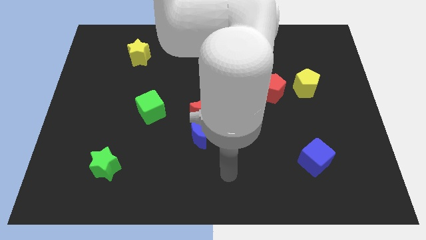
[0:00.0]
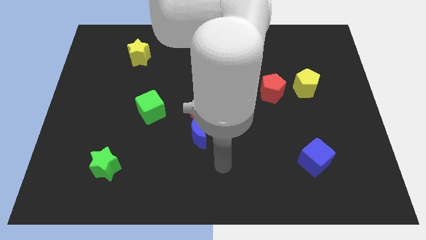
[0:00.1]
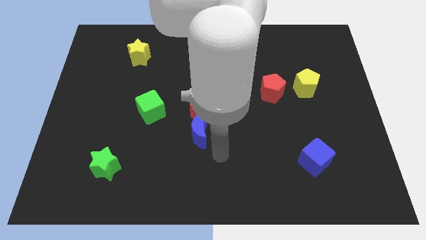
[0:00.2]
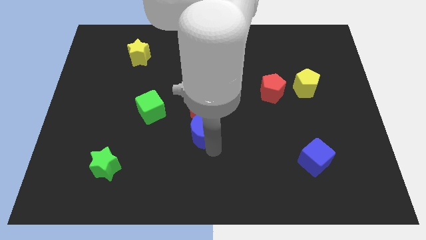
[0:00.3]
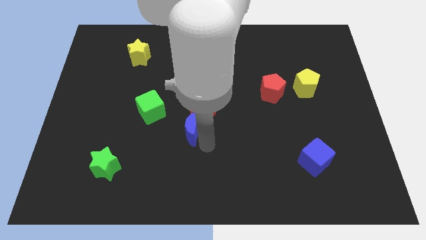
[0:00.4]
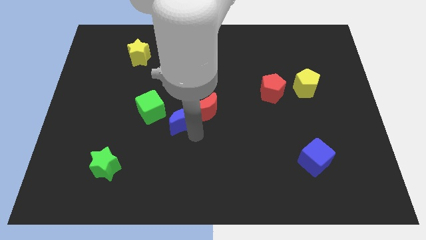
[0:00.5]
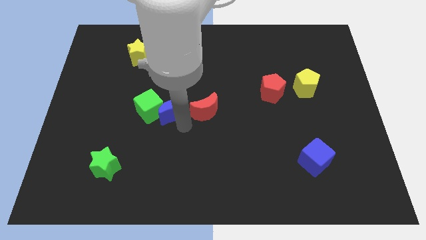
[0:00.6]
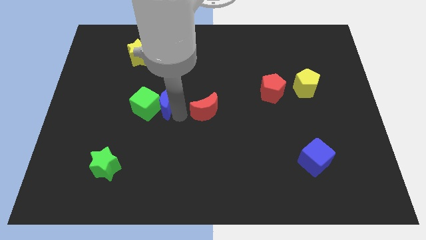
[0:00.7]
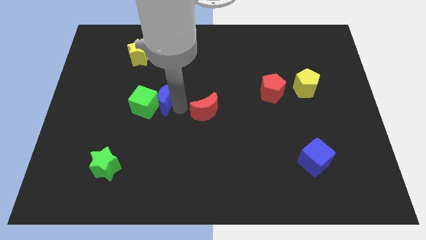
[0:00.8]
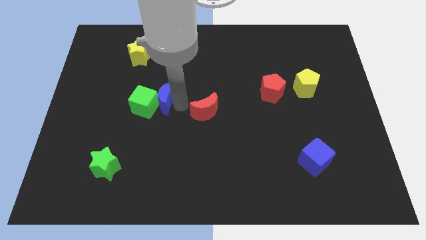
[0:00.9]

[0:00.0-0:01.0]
pull the red moon apart from the blue moon

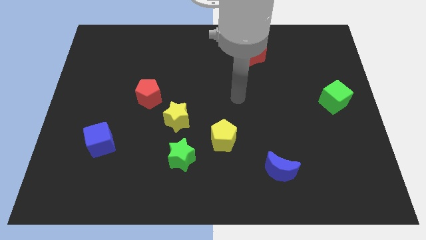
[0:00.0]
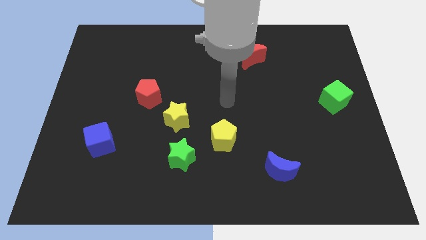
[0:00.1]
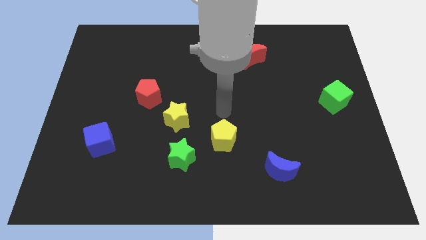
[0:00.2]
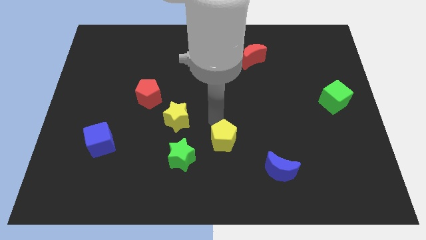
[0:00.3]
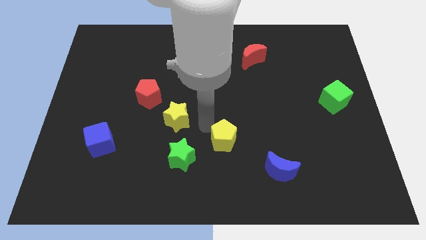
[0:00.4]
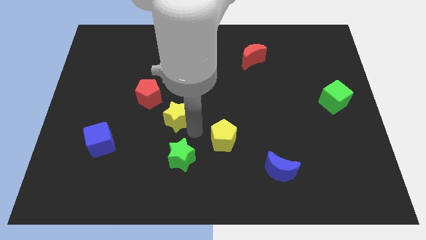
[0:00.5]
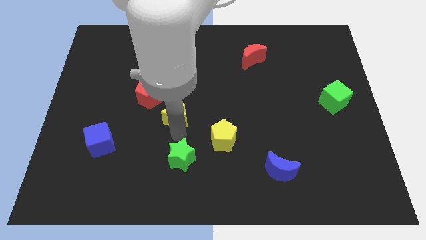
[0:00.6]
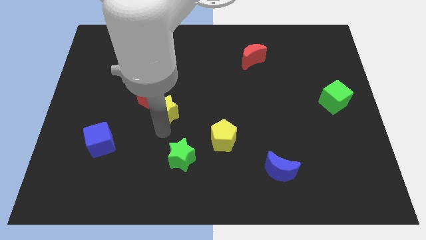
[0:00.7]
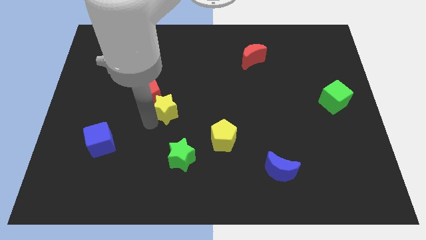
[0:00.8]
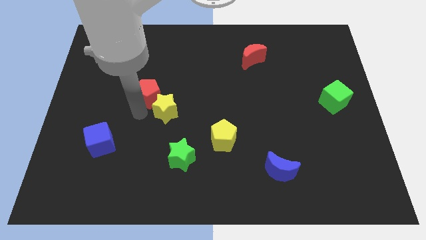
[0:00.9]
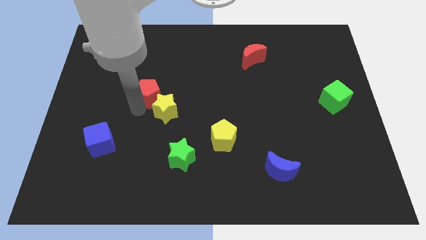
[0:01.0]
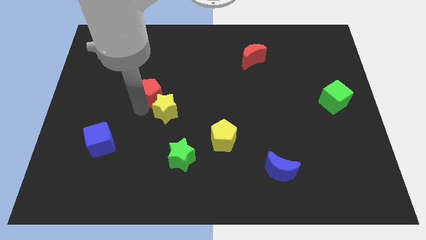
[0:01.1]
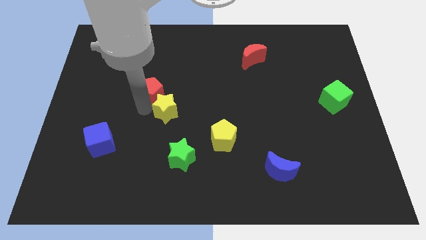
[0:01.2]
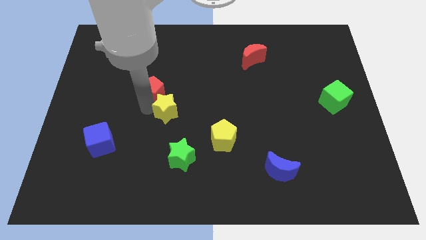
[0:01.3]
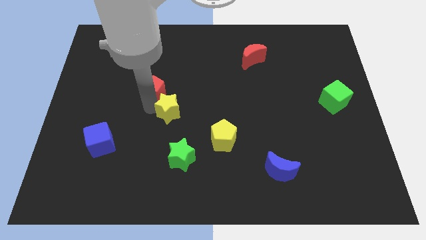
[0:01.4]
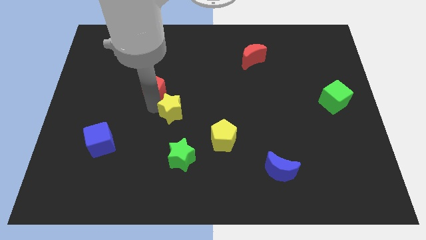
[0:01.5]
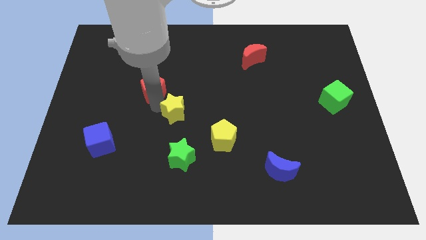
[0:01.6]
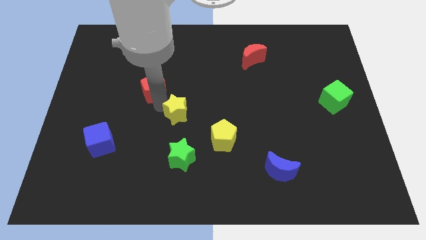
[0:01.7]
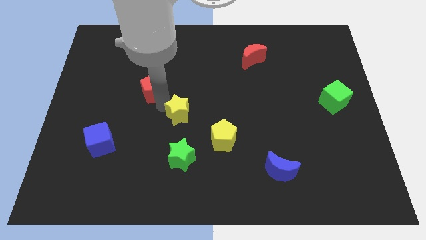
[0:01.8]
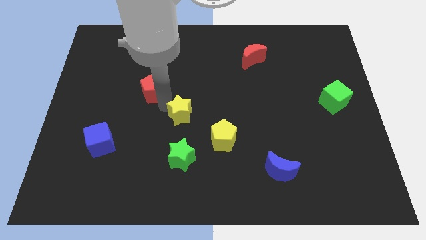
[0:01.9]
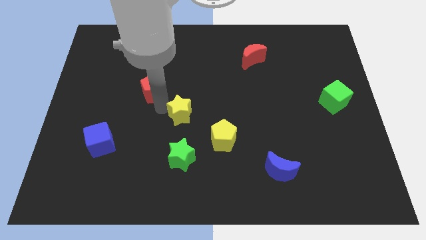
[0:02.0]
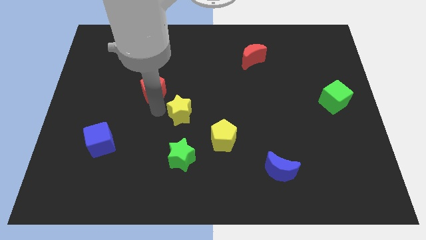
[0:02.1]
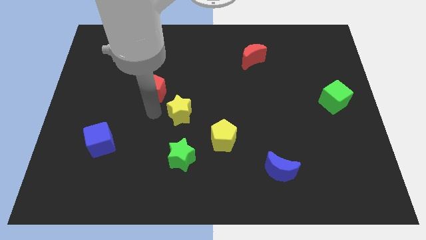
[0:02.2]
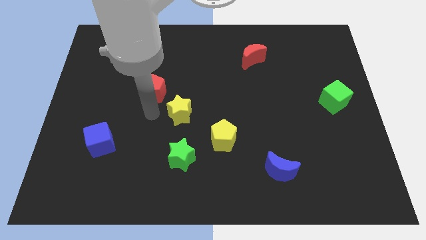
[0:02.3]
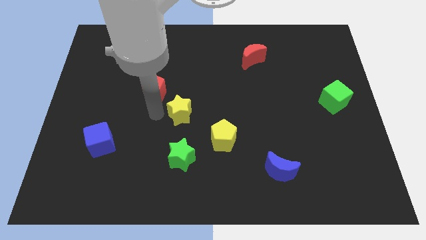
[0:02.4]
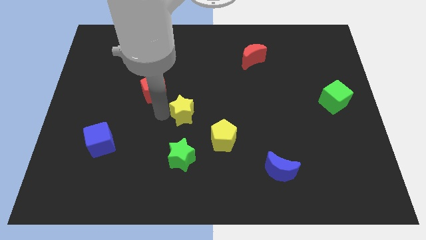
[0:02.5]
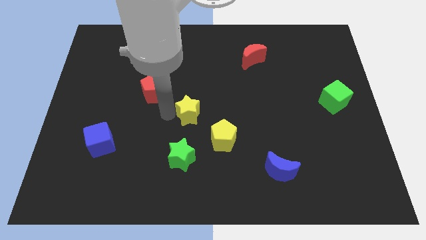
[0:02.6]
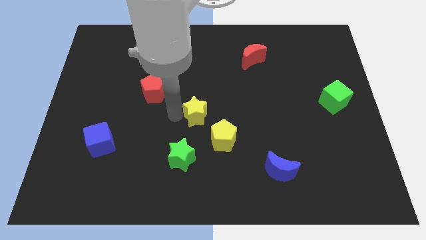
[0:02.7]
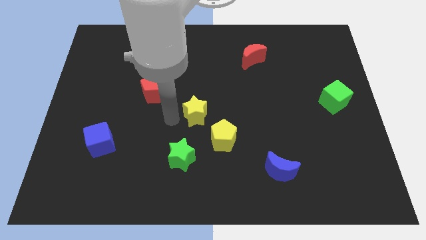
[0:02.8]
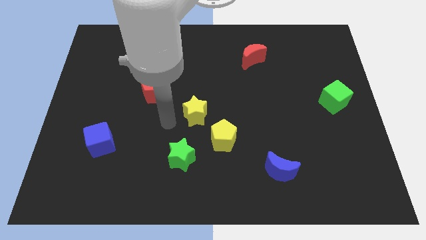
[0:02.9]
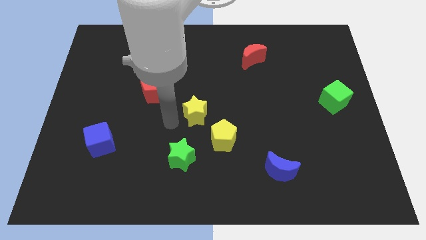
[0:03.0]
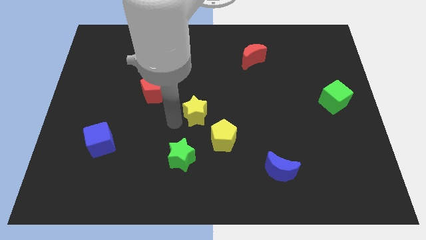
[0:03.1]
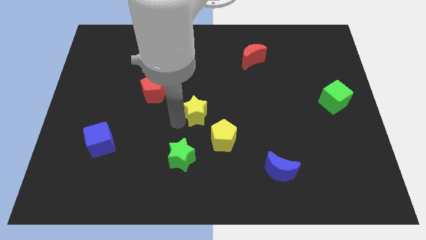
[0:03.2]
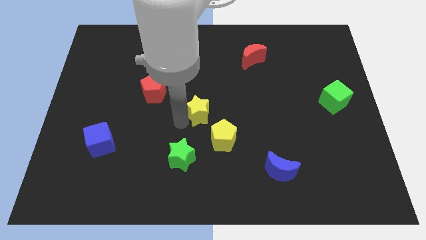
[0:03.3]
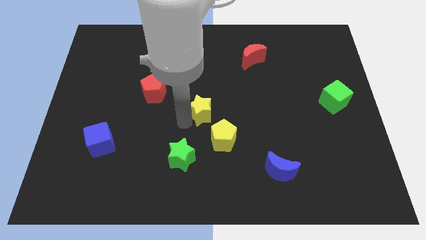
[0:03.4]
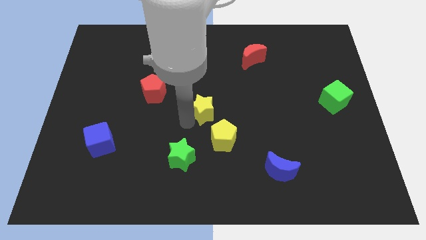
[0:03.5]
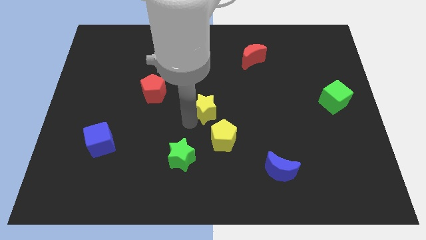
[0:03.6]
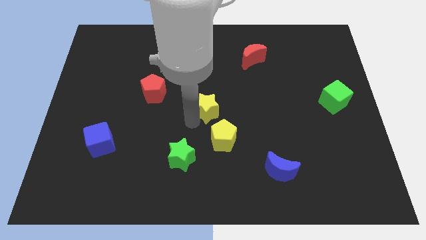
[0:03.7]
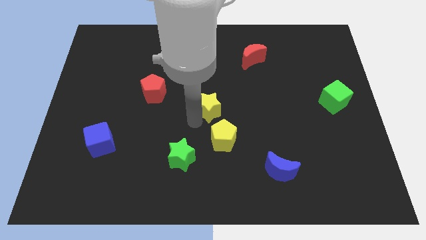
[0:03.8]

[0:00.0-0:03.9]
pull the yellow star apart from the green star and red pentagon

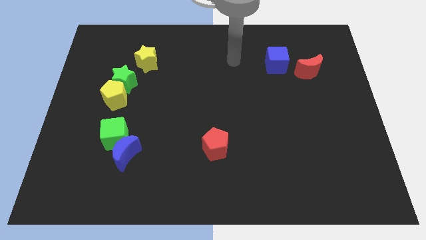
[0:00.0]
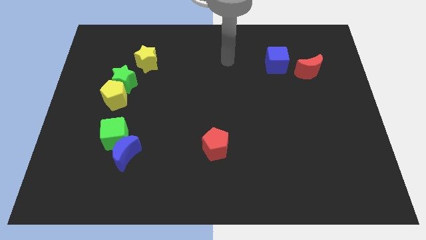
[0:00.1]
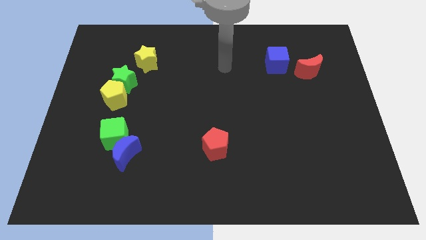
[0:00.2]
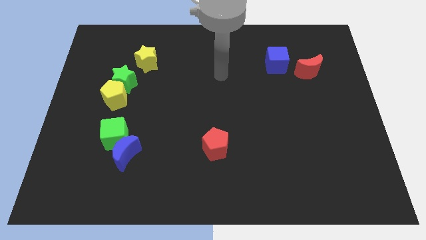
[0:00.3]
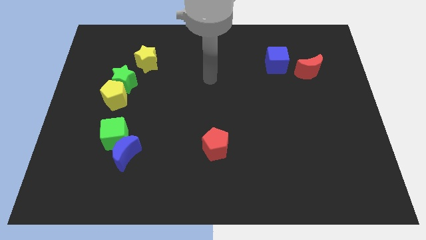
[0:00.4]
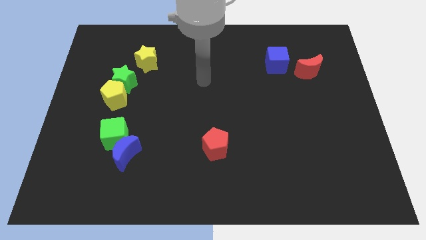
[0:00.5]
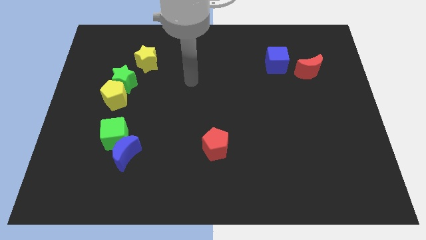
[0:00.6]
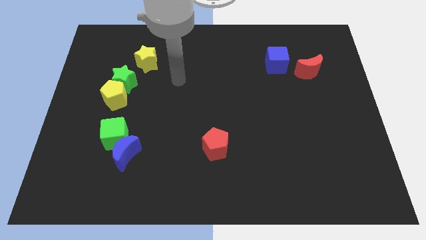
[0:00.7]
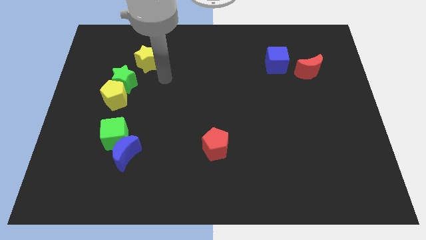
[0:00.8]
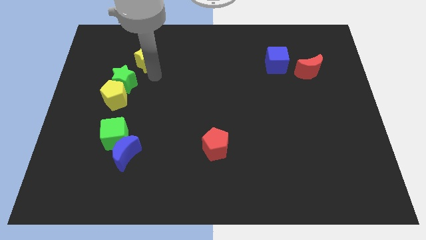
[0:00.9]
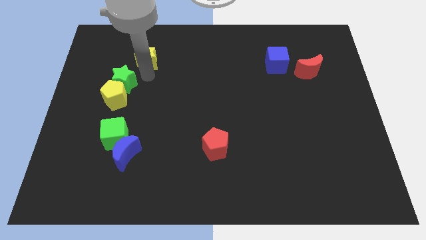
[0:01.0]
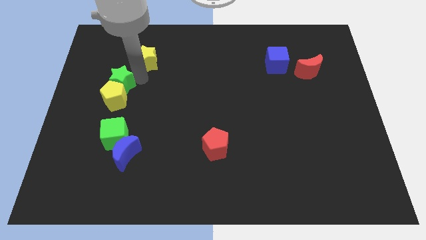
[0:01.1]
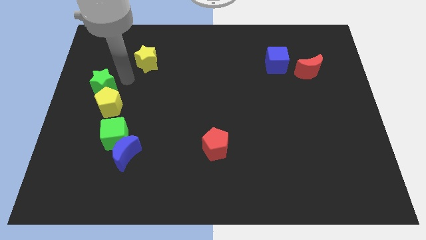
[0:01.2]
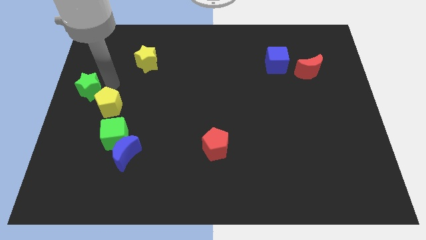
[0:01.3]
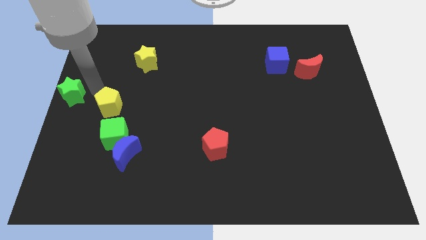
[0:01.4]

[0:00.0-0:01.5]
separate the yellow pentagon from the green star

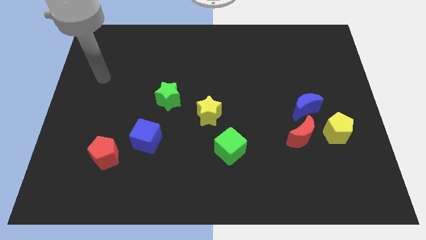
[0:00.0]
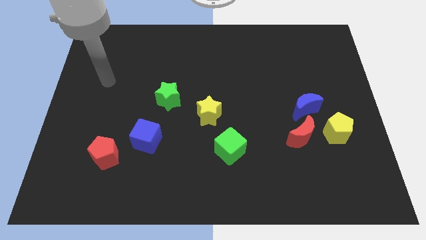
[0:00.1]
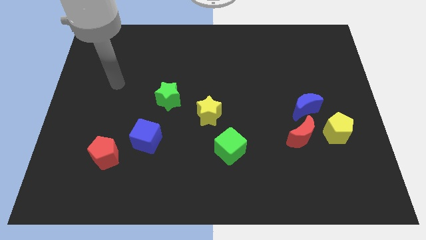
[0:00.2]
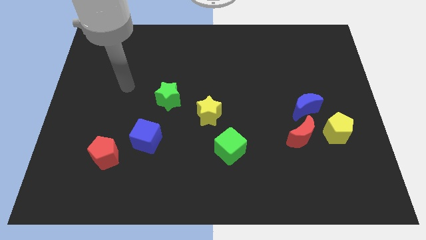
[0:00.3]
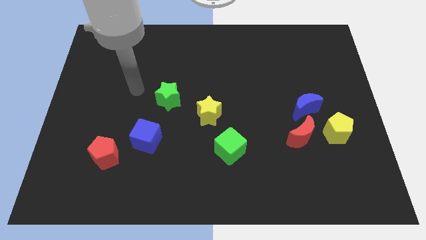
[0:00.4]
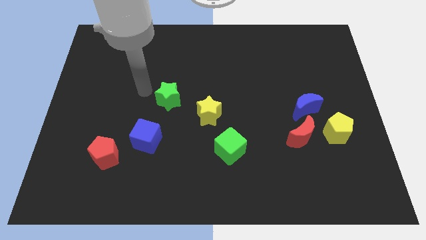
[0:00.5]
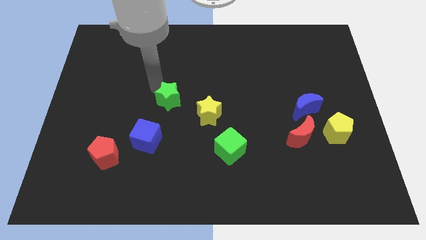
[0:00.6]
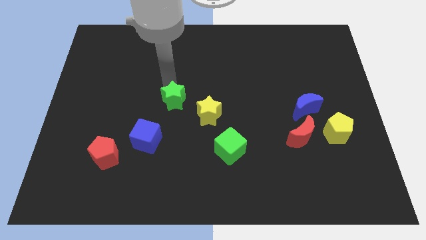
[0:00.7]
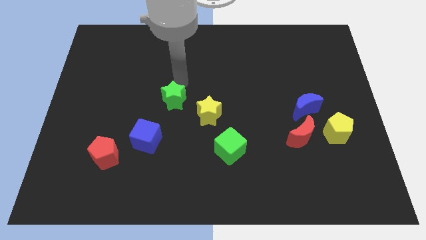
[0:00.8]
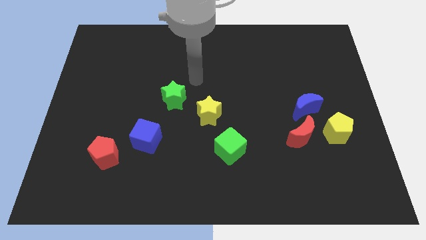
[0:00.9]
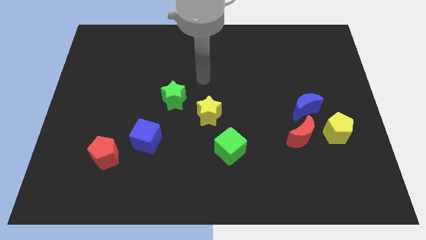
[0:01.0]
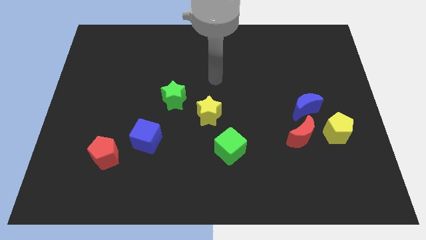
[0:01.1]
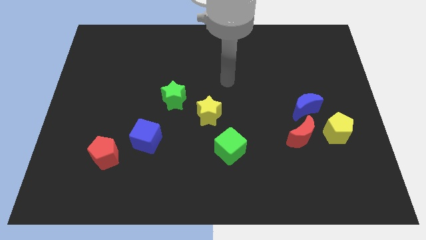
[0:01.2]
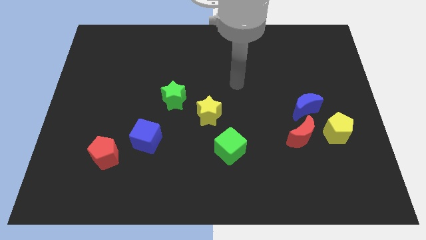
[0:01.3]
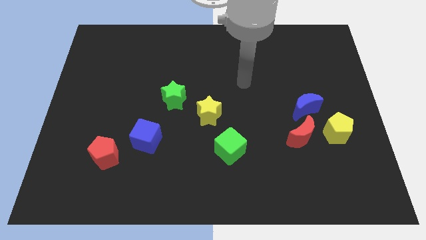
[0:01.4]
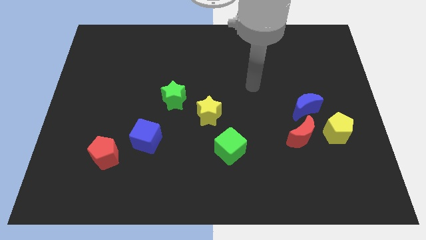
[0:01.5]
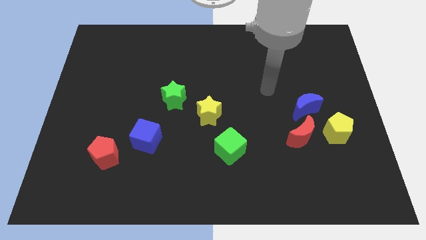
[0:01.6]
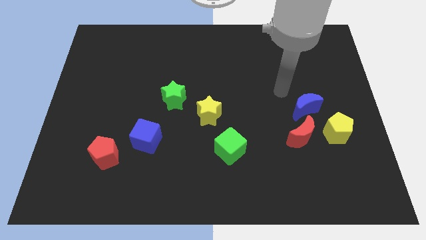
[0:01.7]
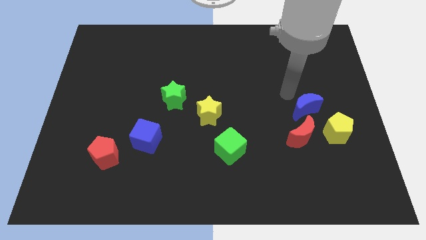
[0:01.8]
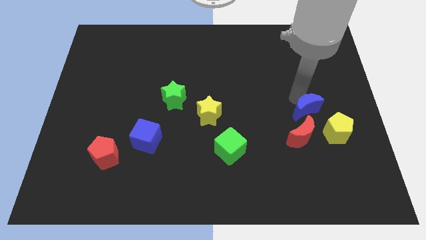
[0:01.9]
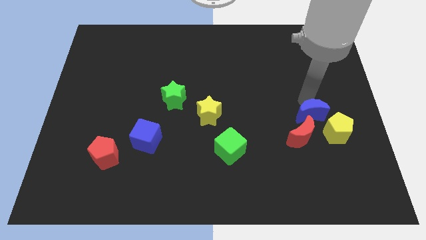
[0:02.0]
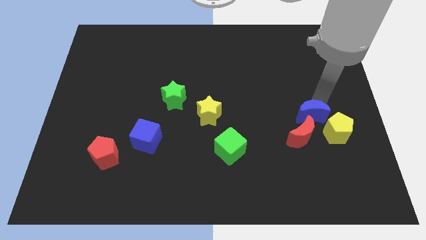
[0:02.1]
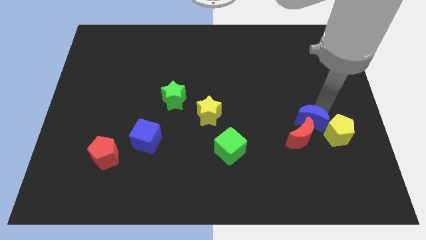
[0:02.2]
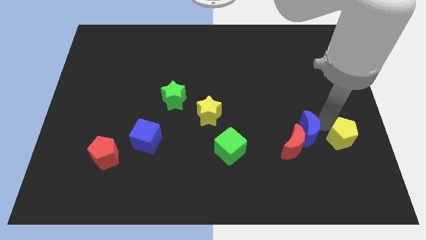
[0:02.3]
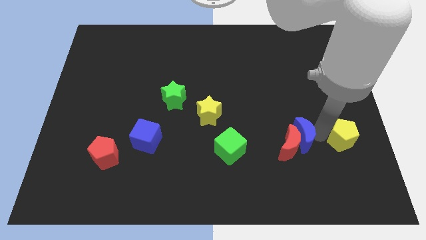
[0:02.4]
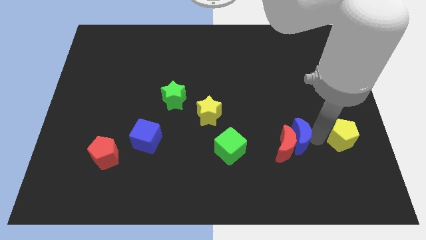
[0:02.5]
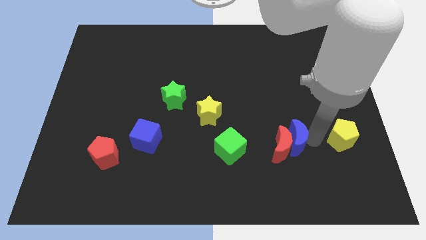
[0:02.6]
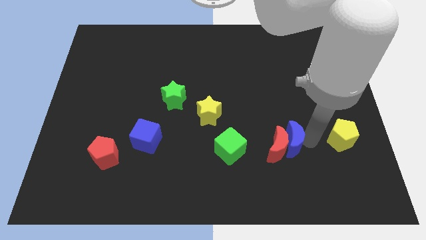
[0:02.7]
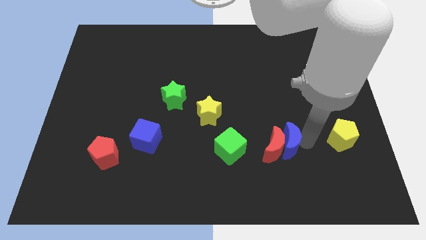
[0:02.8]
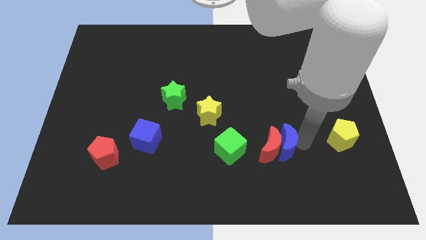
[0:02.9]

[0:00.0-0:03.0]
separate the red moon from the blue moon and yellow pentagon
